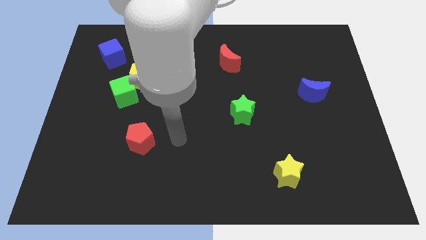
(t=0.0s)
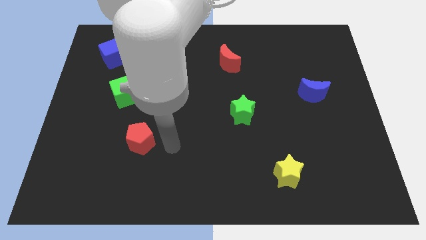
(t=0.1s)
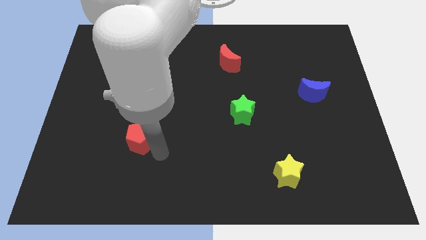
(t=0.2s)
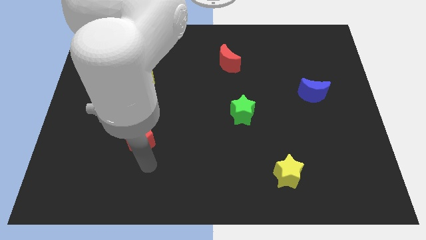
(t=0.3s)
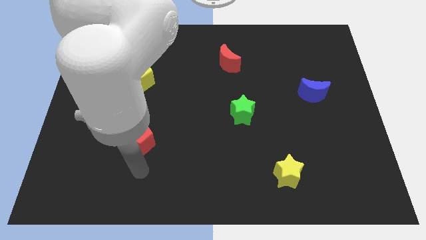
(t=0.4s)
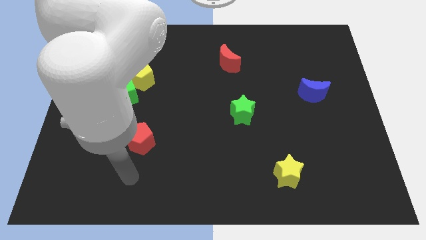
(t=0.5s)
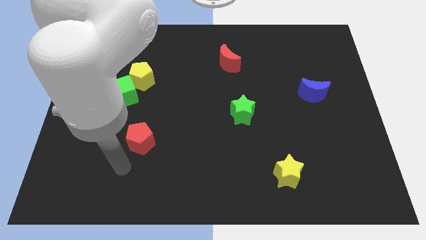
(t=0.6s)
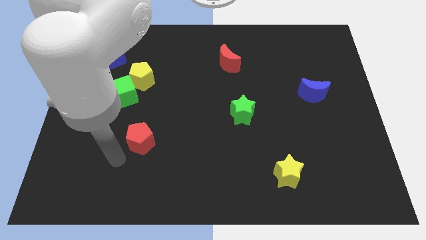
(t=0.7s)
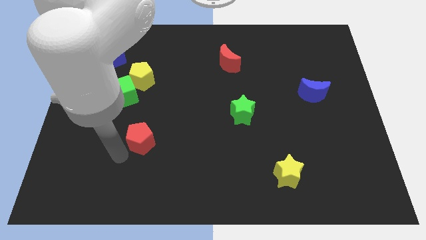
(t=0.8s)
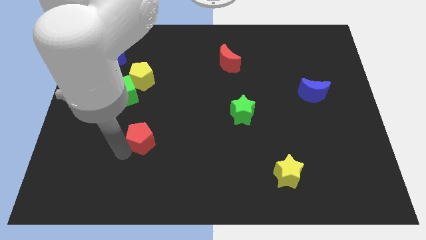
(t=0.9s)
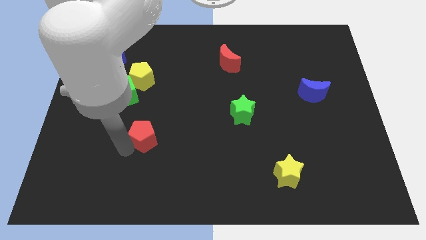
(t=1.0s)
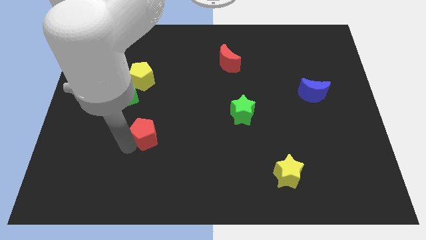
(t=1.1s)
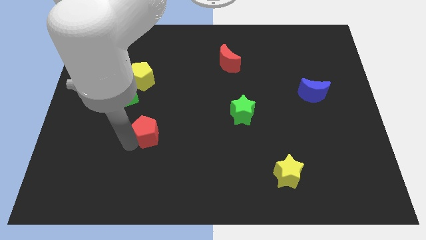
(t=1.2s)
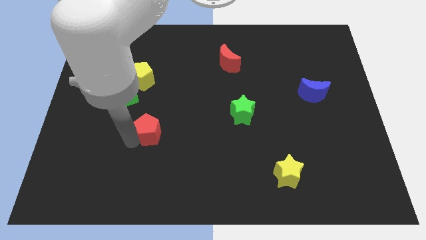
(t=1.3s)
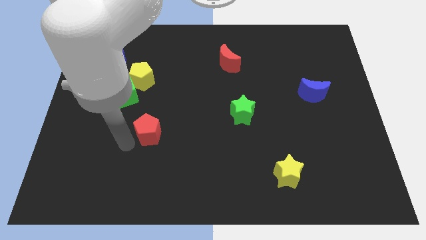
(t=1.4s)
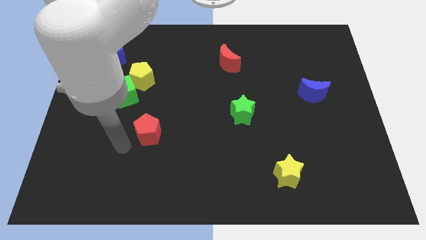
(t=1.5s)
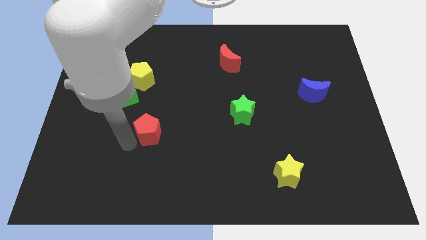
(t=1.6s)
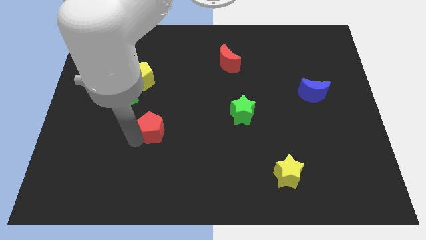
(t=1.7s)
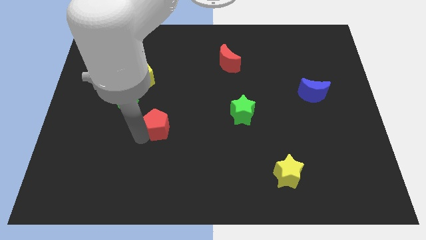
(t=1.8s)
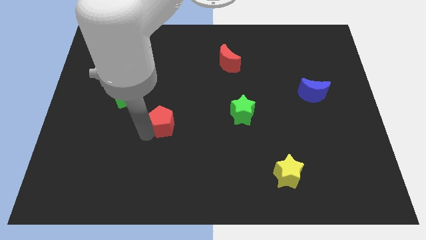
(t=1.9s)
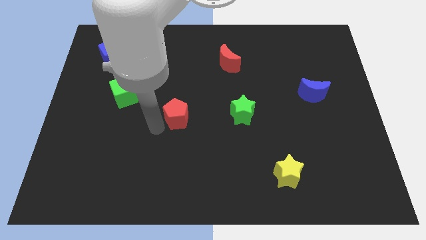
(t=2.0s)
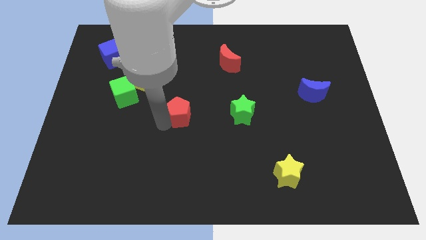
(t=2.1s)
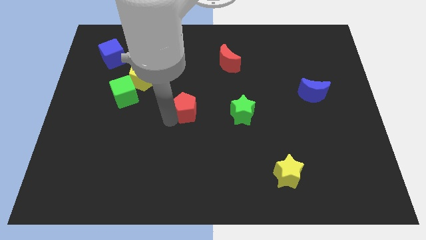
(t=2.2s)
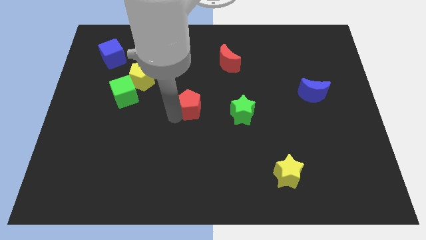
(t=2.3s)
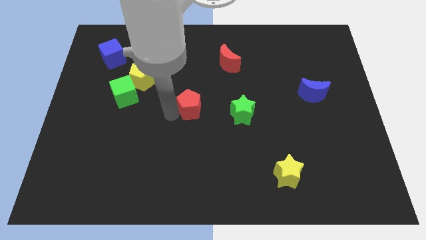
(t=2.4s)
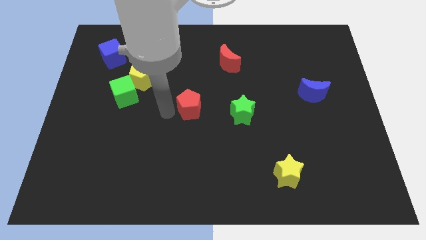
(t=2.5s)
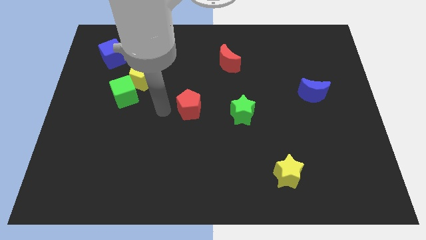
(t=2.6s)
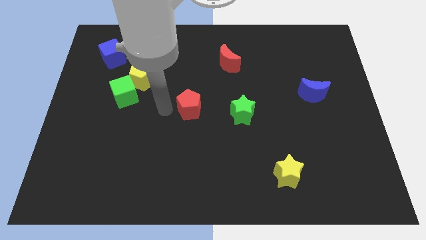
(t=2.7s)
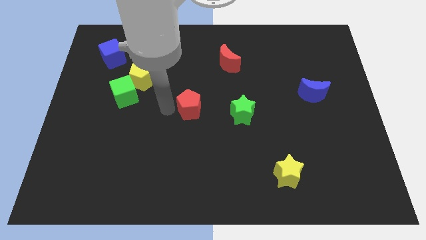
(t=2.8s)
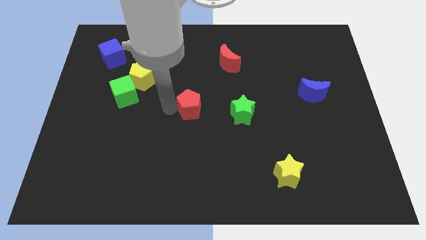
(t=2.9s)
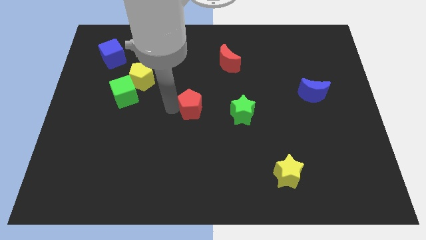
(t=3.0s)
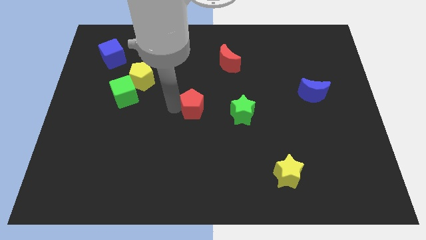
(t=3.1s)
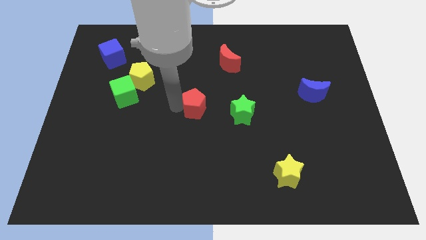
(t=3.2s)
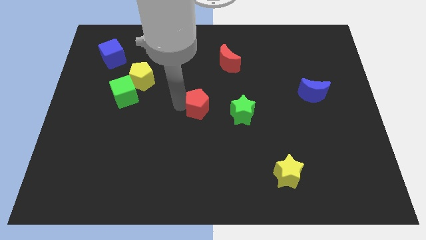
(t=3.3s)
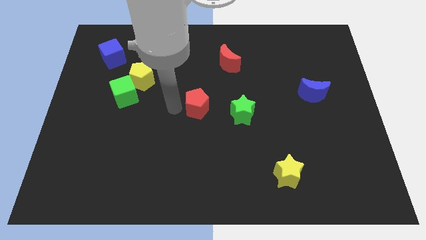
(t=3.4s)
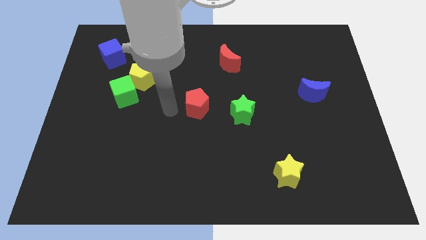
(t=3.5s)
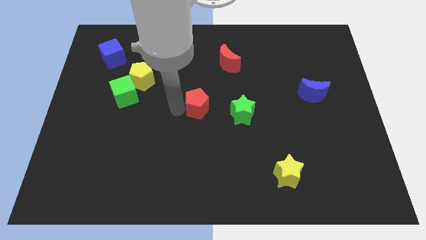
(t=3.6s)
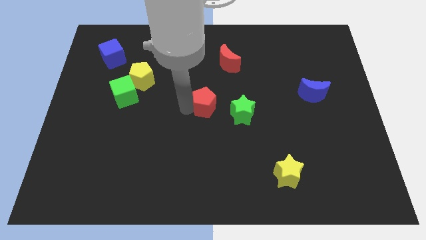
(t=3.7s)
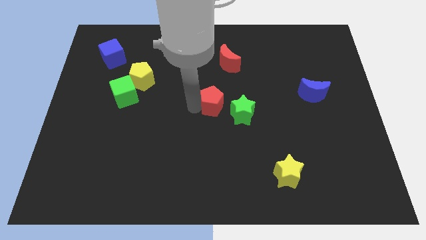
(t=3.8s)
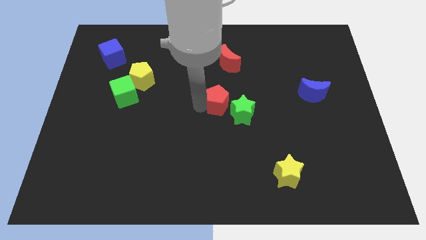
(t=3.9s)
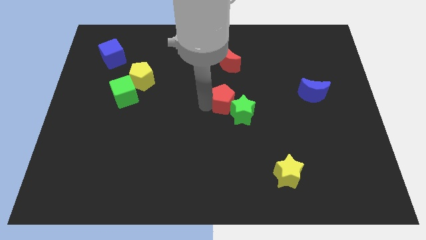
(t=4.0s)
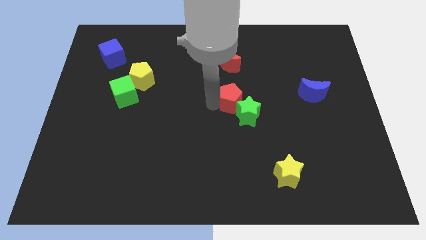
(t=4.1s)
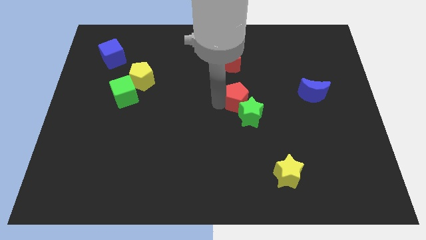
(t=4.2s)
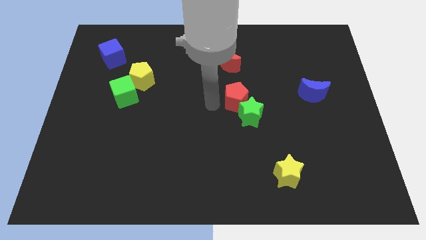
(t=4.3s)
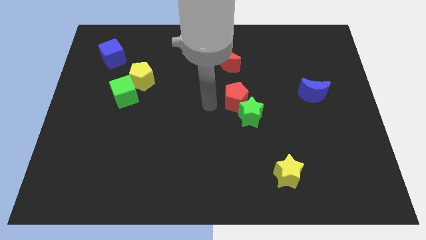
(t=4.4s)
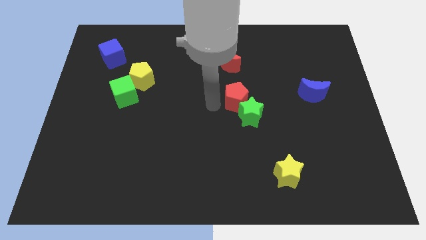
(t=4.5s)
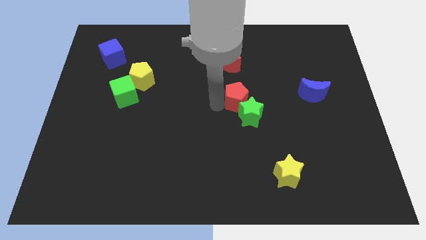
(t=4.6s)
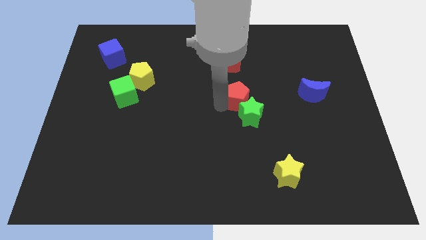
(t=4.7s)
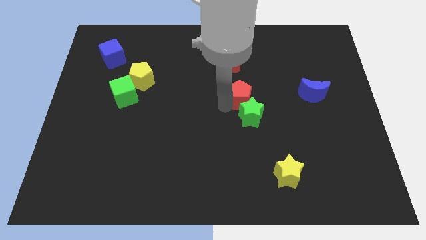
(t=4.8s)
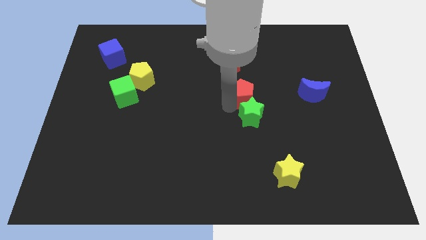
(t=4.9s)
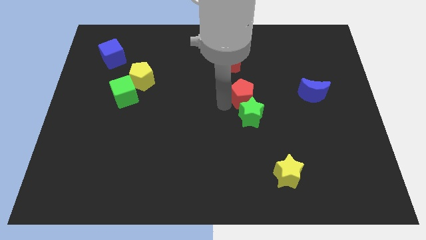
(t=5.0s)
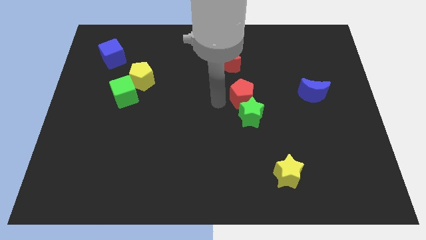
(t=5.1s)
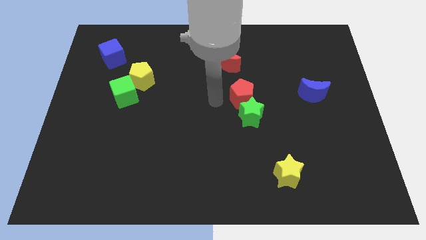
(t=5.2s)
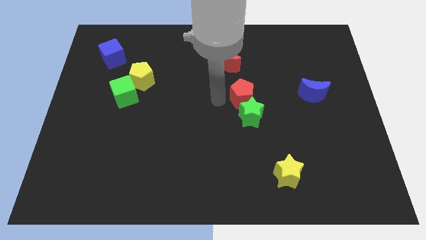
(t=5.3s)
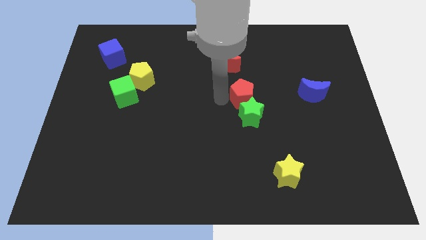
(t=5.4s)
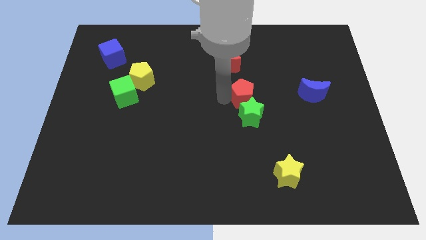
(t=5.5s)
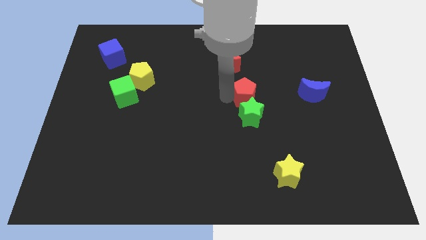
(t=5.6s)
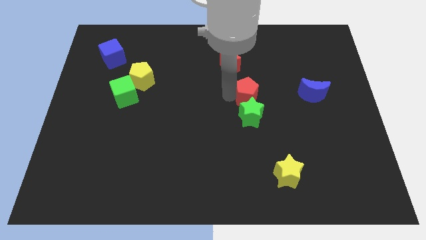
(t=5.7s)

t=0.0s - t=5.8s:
push the red pentagon just left of the blue moon

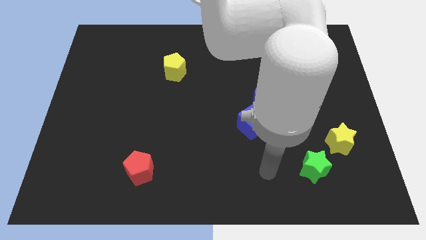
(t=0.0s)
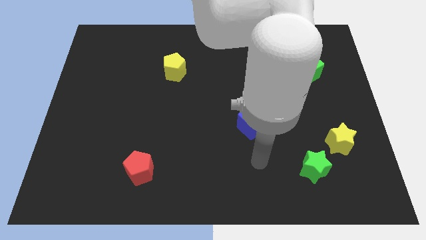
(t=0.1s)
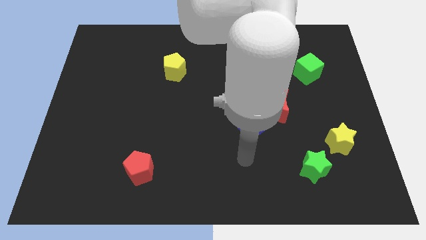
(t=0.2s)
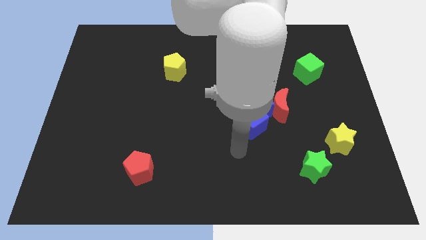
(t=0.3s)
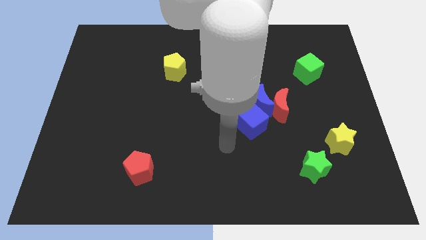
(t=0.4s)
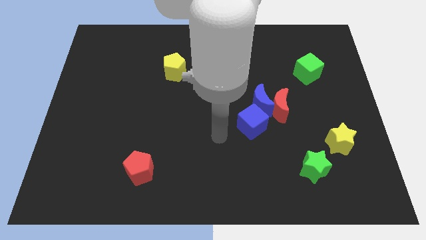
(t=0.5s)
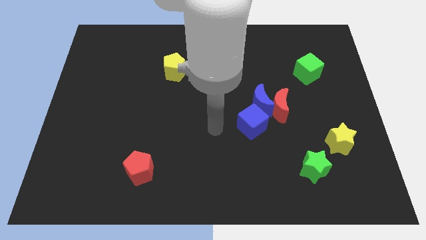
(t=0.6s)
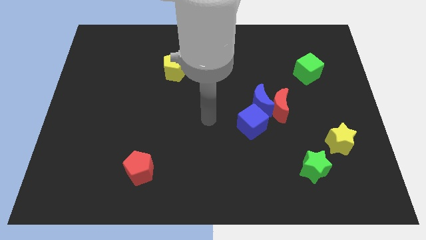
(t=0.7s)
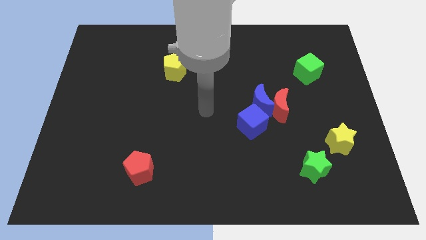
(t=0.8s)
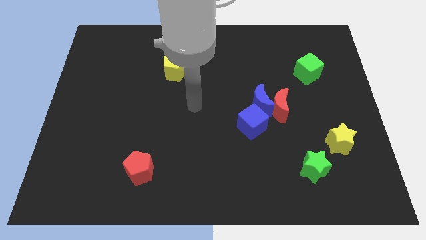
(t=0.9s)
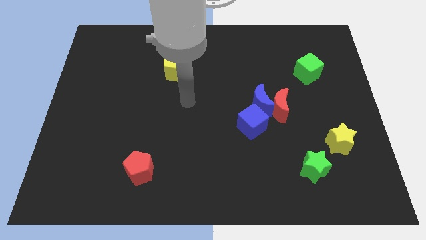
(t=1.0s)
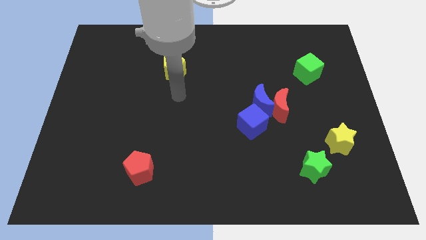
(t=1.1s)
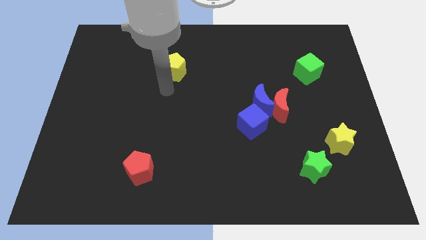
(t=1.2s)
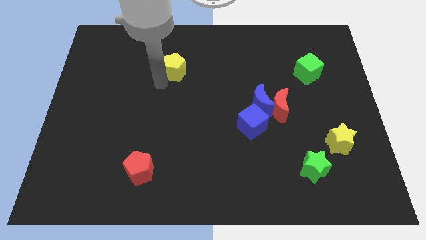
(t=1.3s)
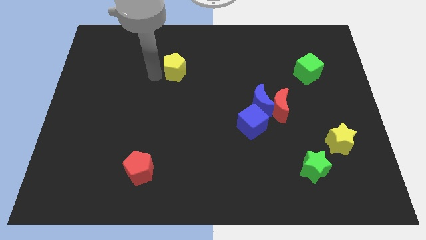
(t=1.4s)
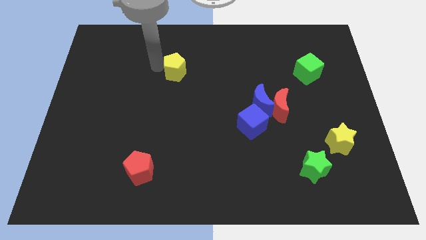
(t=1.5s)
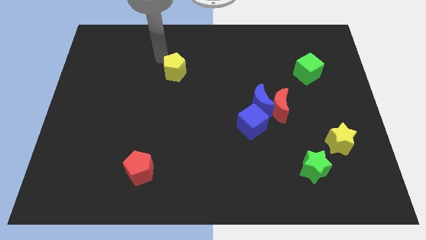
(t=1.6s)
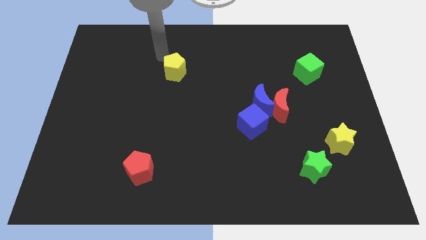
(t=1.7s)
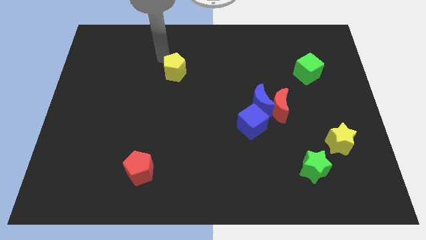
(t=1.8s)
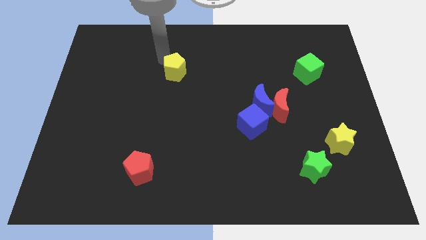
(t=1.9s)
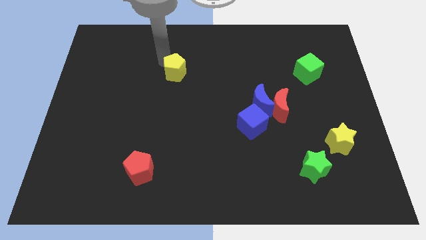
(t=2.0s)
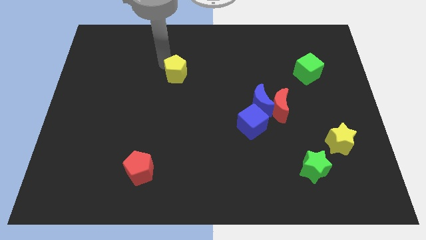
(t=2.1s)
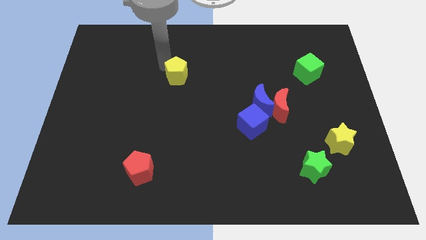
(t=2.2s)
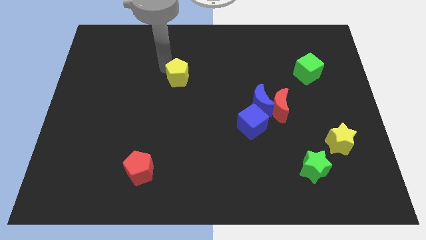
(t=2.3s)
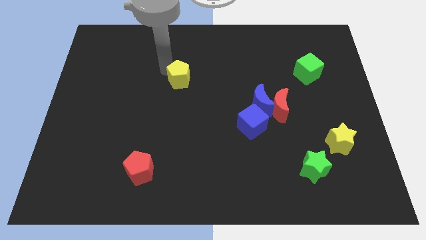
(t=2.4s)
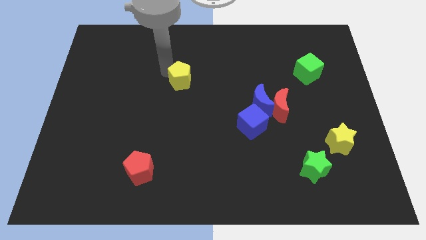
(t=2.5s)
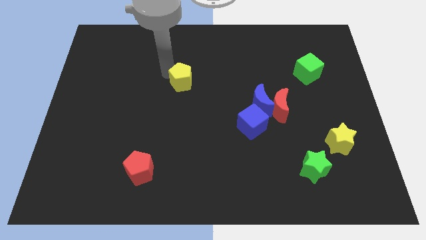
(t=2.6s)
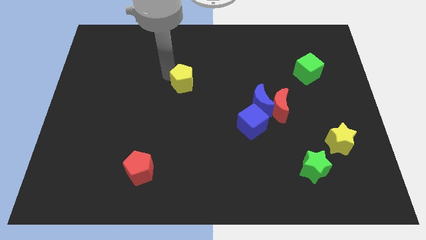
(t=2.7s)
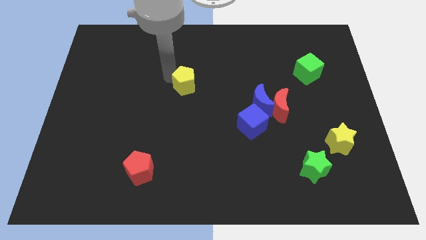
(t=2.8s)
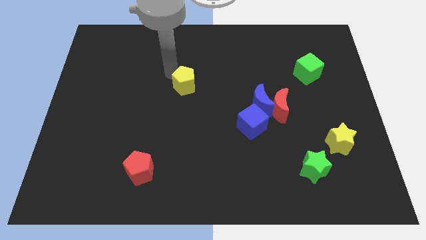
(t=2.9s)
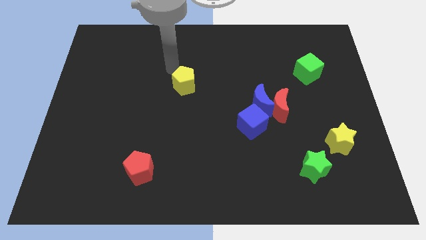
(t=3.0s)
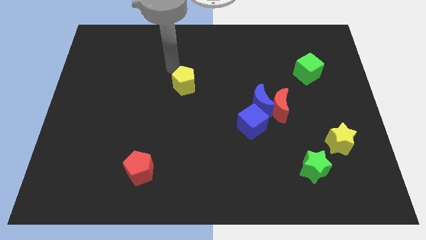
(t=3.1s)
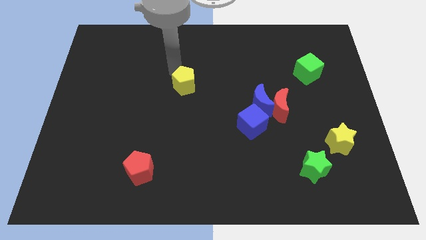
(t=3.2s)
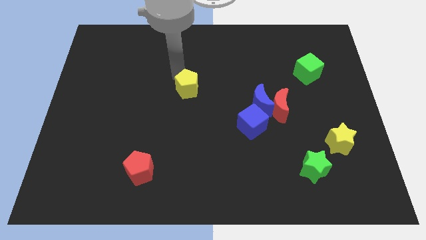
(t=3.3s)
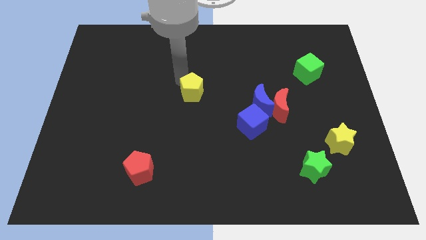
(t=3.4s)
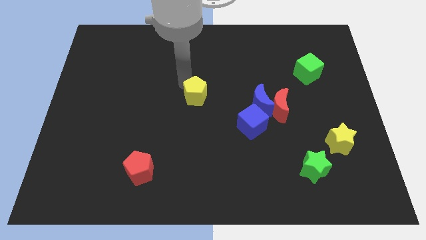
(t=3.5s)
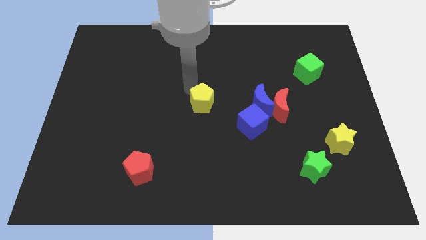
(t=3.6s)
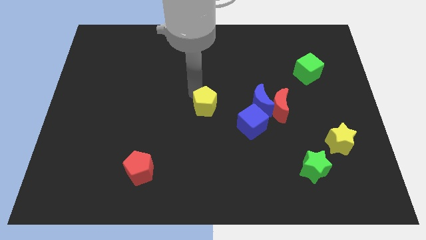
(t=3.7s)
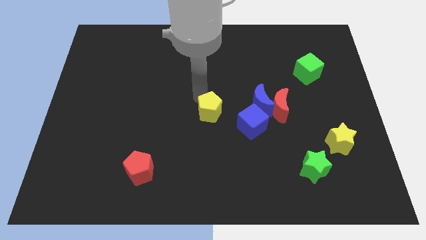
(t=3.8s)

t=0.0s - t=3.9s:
push the yellow pentagon to the left side of the blue cube
